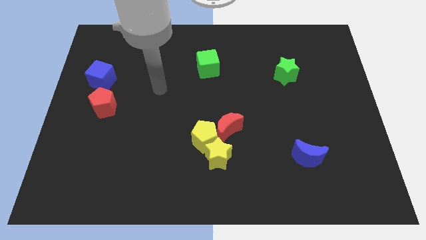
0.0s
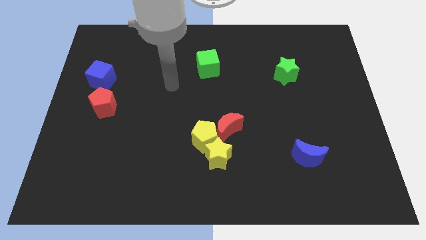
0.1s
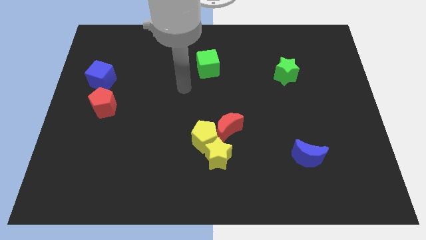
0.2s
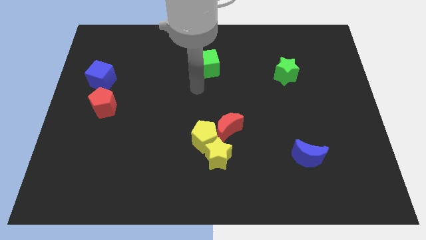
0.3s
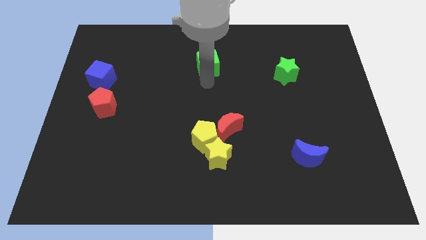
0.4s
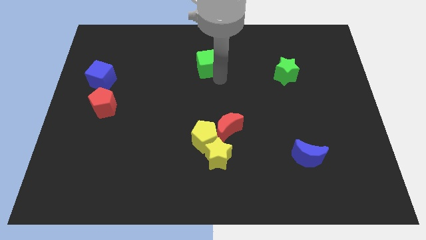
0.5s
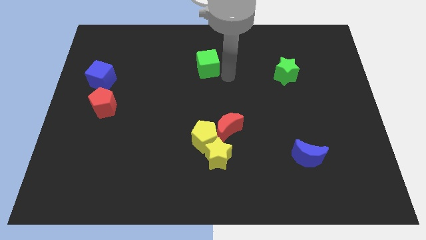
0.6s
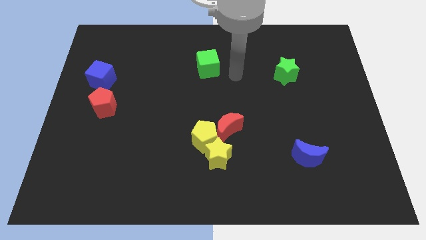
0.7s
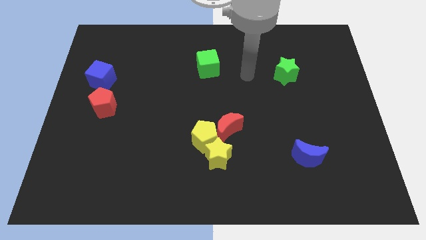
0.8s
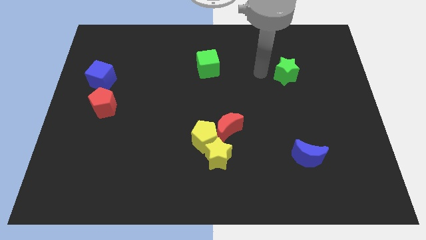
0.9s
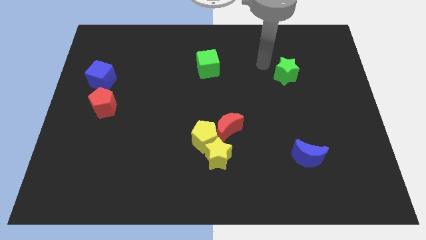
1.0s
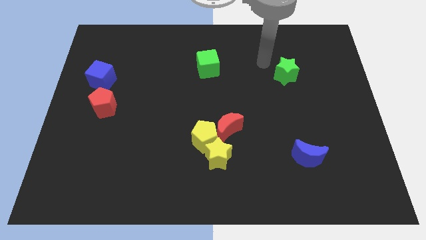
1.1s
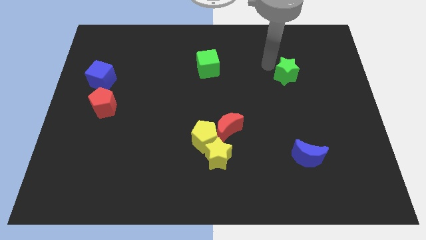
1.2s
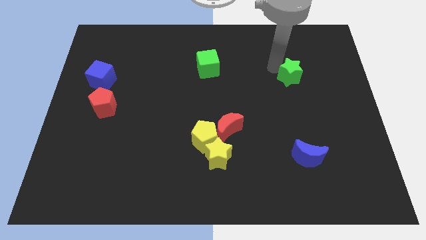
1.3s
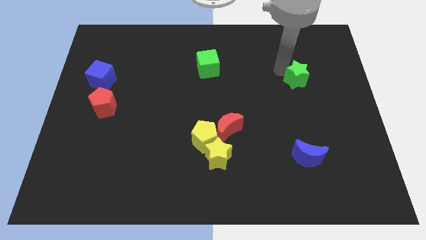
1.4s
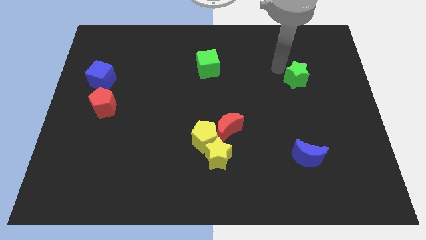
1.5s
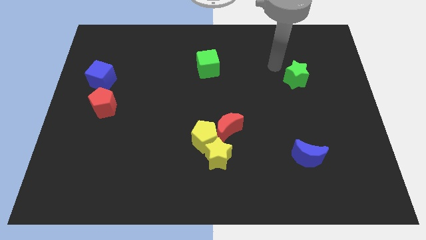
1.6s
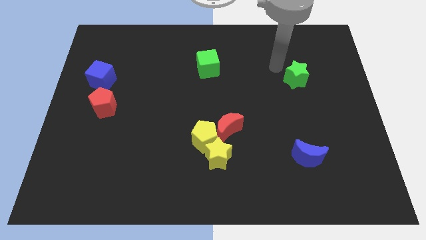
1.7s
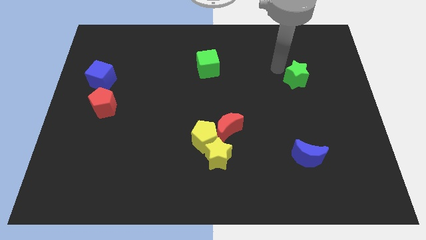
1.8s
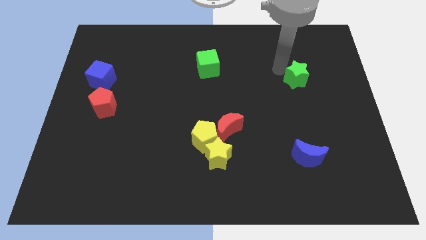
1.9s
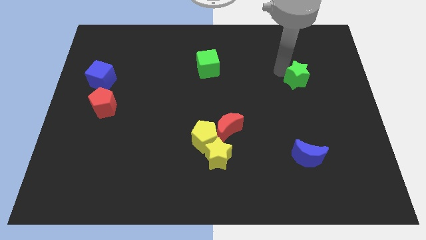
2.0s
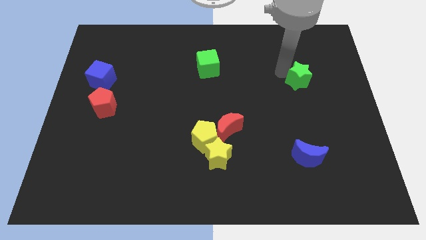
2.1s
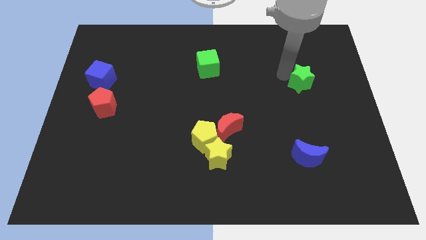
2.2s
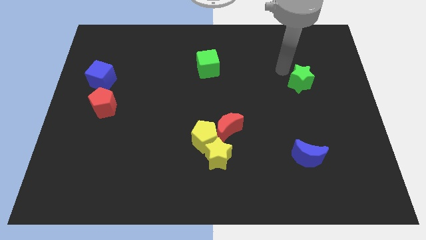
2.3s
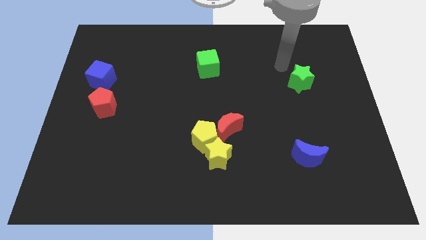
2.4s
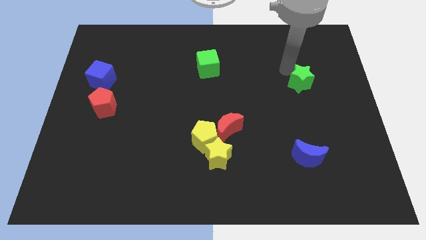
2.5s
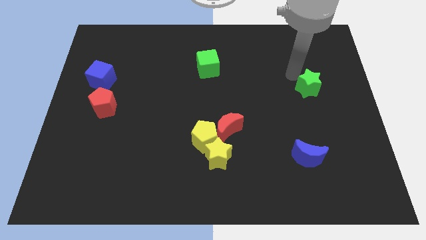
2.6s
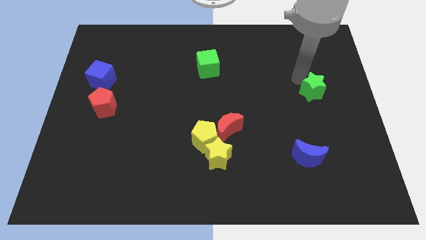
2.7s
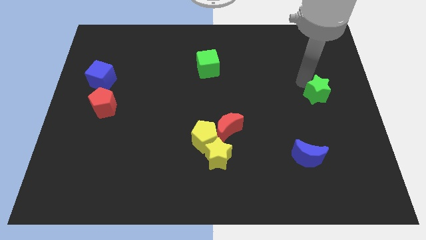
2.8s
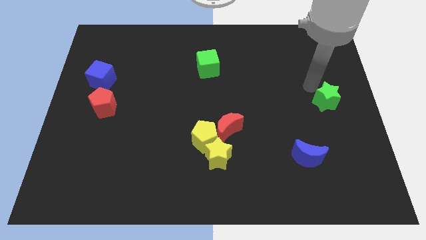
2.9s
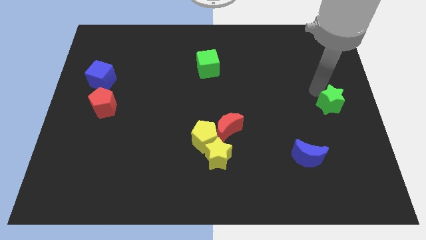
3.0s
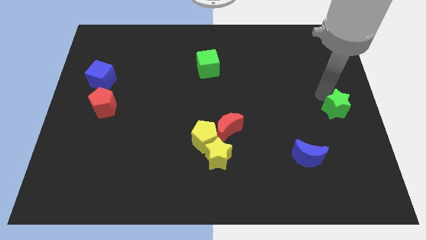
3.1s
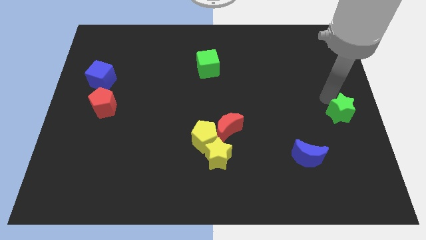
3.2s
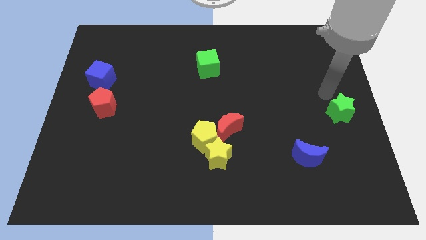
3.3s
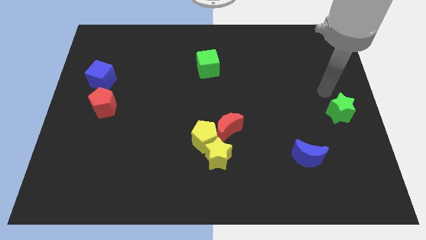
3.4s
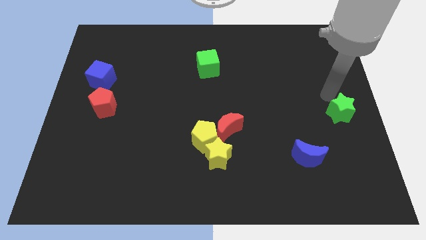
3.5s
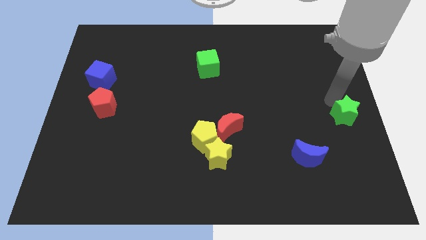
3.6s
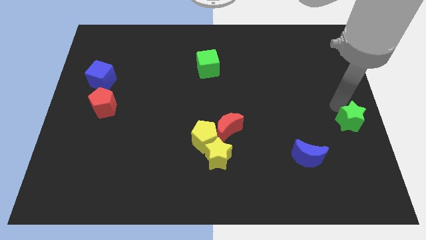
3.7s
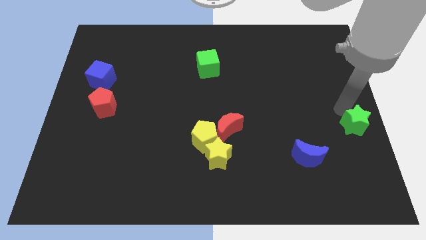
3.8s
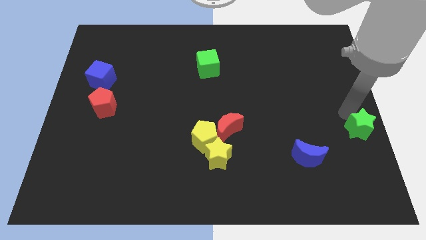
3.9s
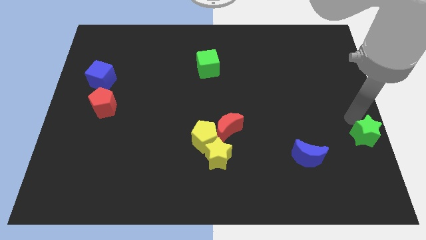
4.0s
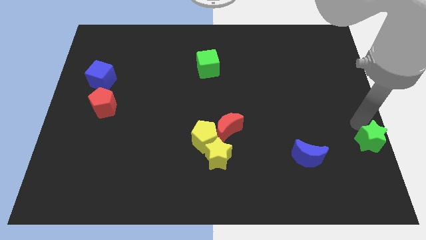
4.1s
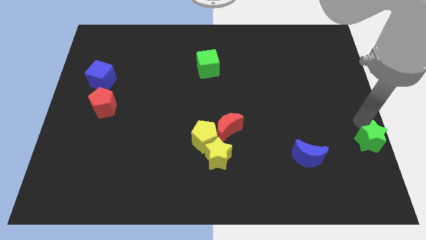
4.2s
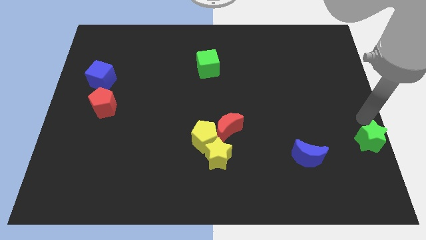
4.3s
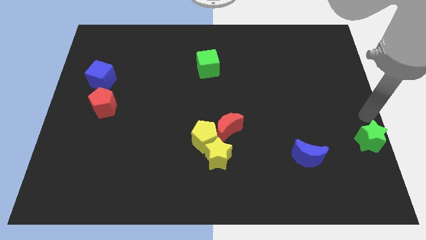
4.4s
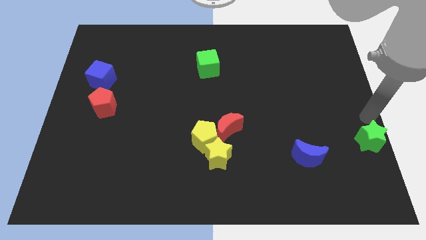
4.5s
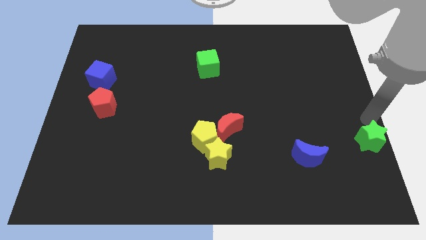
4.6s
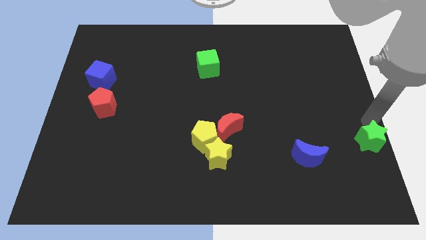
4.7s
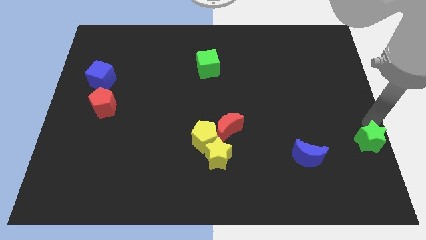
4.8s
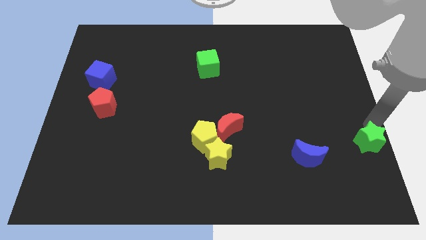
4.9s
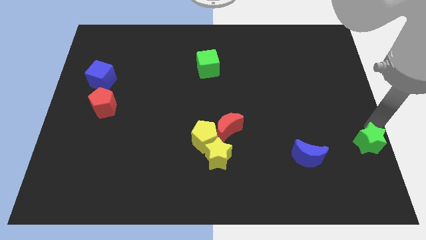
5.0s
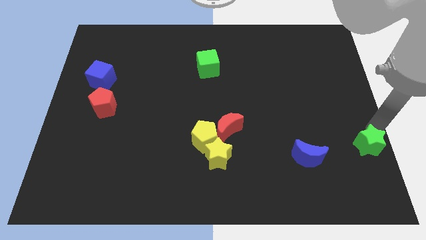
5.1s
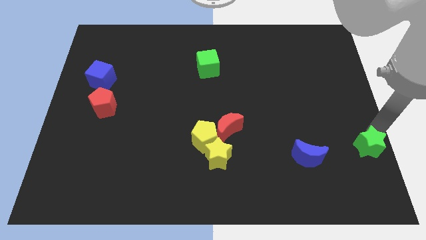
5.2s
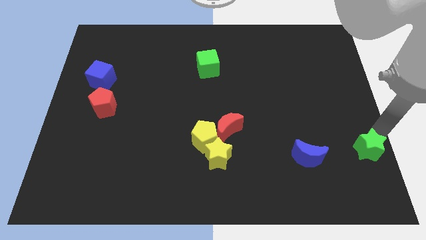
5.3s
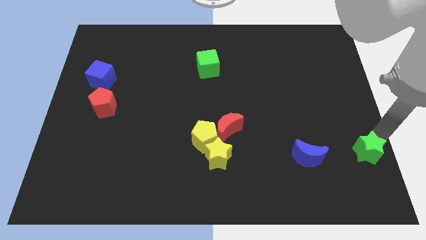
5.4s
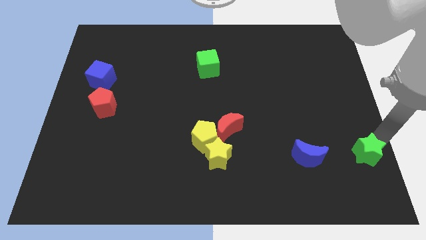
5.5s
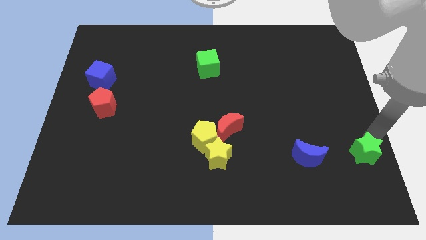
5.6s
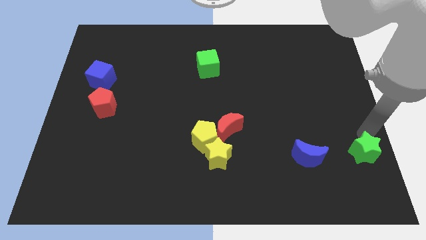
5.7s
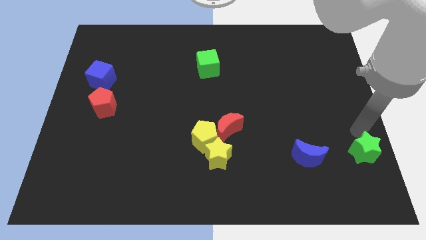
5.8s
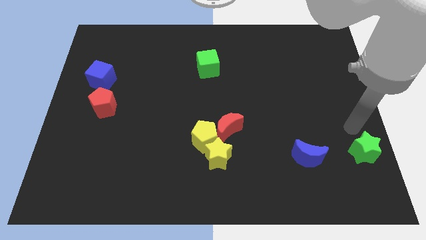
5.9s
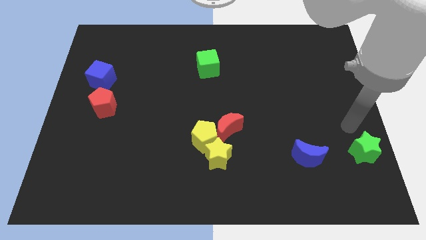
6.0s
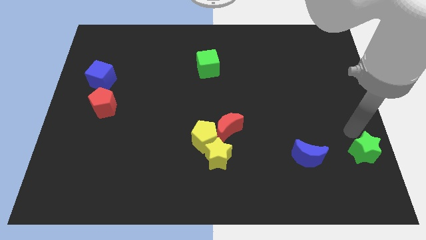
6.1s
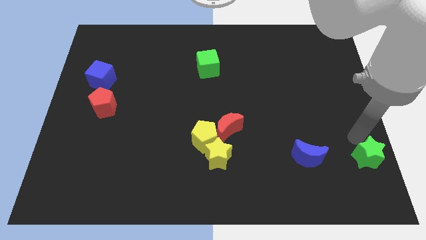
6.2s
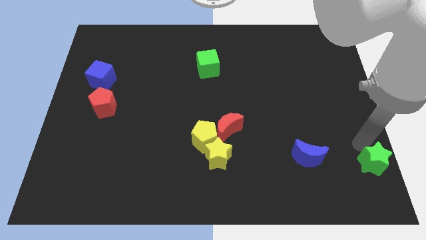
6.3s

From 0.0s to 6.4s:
slide the green star to the bottom right
